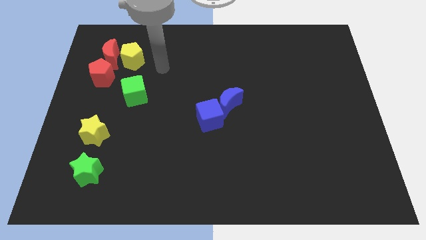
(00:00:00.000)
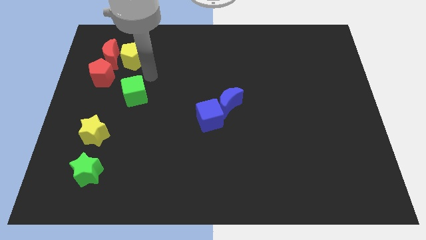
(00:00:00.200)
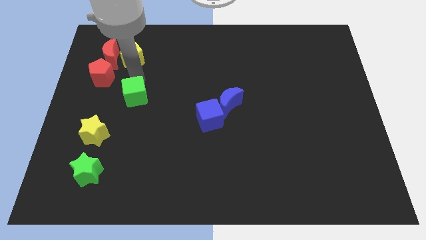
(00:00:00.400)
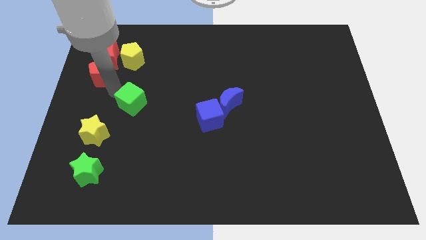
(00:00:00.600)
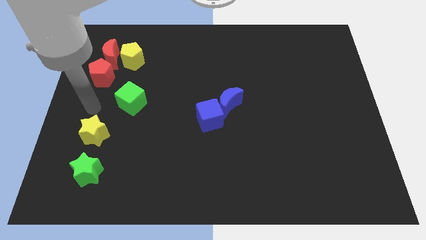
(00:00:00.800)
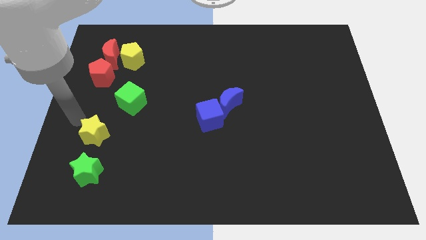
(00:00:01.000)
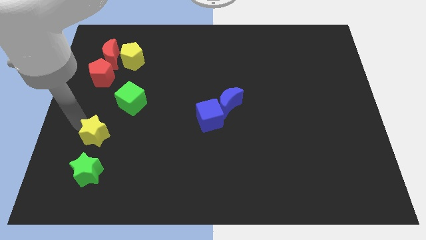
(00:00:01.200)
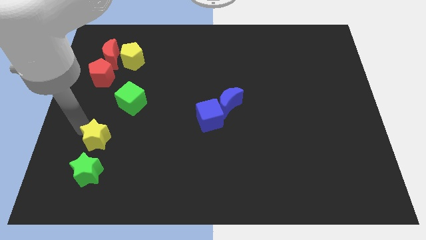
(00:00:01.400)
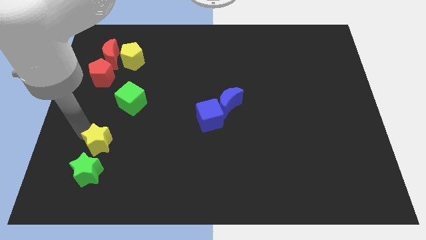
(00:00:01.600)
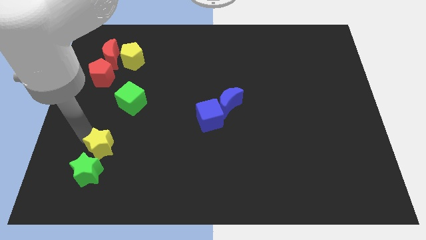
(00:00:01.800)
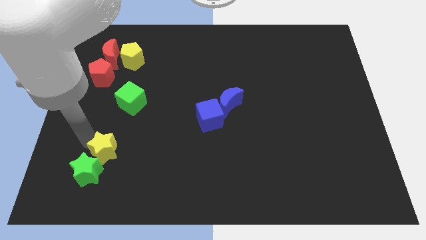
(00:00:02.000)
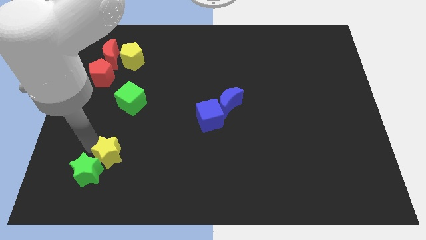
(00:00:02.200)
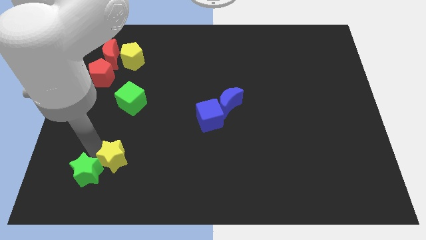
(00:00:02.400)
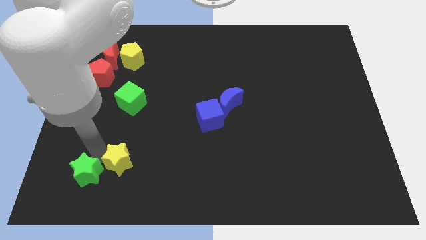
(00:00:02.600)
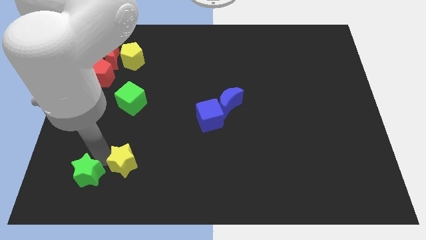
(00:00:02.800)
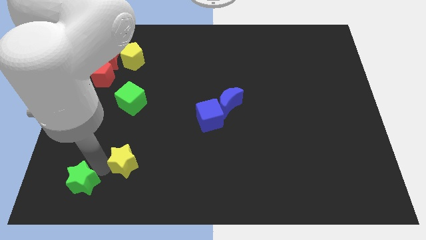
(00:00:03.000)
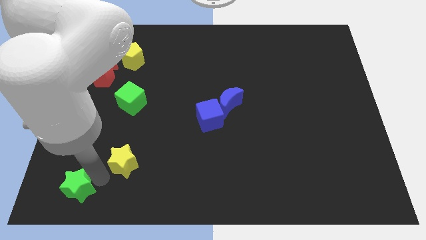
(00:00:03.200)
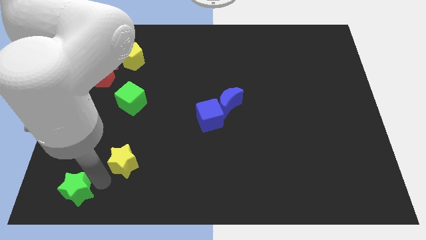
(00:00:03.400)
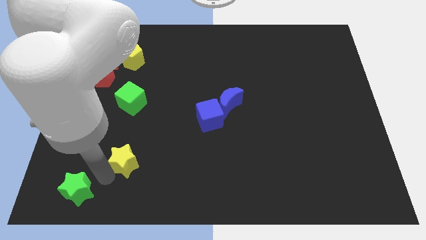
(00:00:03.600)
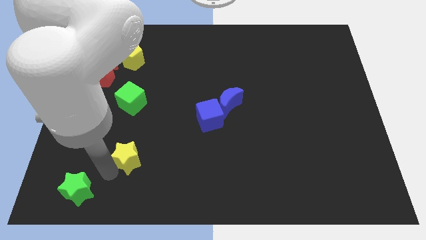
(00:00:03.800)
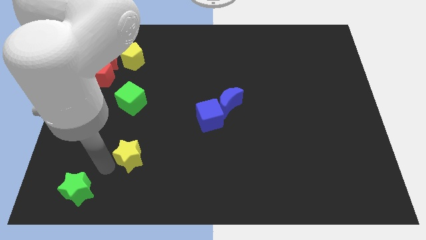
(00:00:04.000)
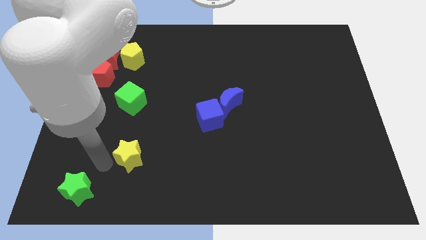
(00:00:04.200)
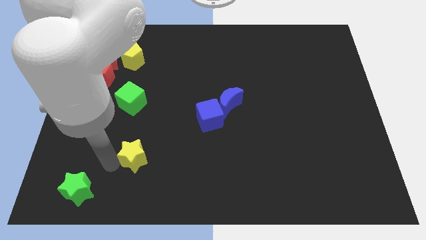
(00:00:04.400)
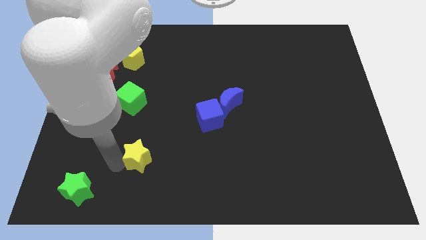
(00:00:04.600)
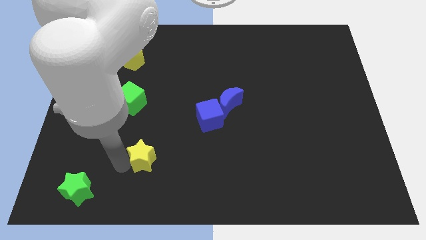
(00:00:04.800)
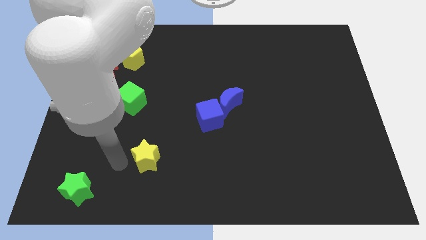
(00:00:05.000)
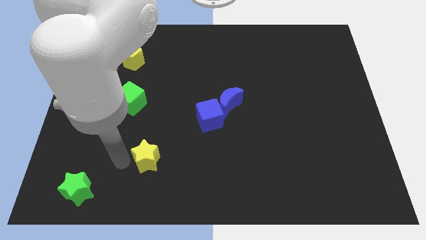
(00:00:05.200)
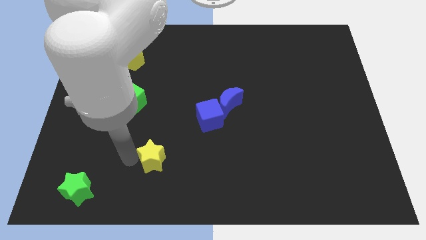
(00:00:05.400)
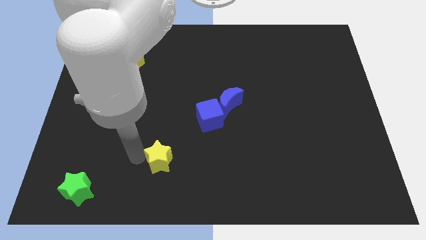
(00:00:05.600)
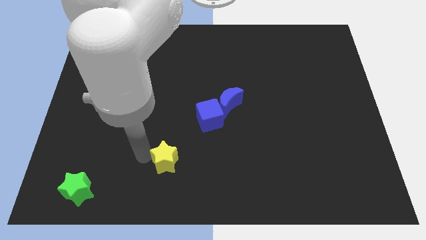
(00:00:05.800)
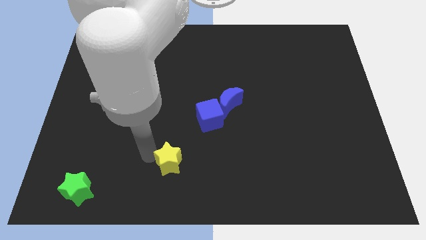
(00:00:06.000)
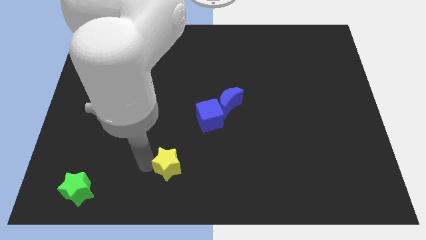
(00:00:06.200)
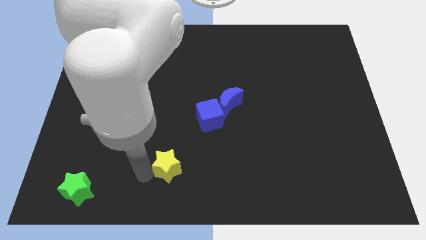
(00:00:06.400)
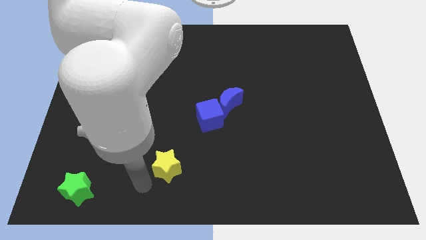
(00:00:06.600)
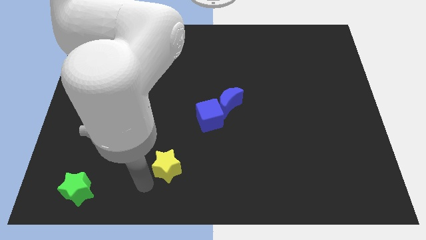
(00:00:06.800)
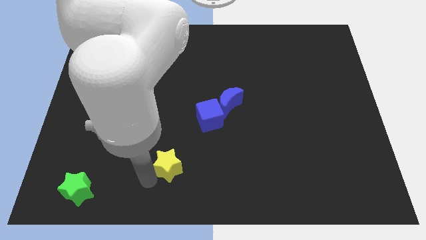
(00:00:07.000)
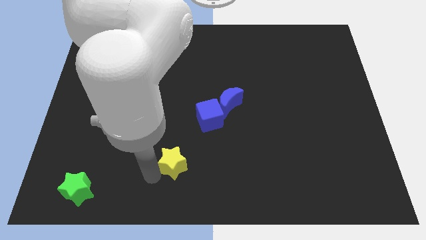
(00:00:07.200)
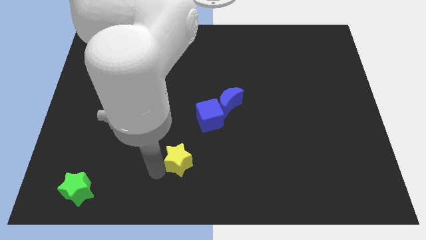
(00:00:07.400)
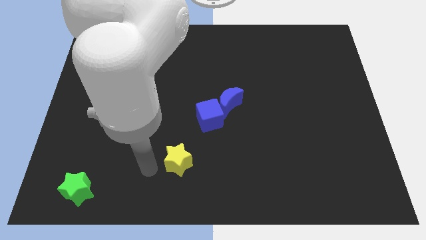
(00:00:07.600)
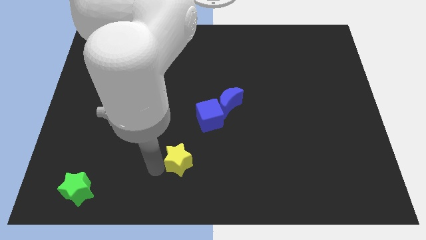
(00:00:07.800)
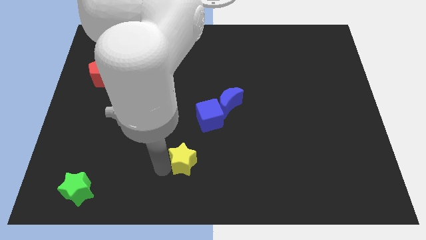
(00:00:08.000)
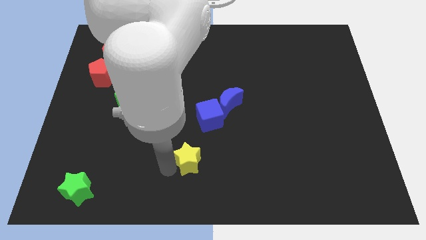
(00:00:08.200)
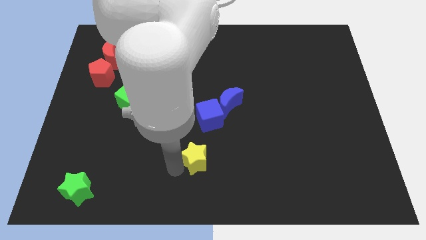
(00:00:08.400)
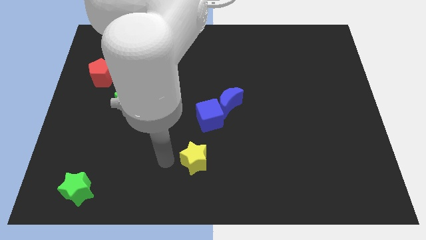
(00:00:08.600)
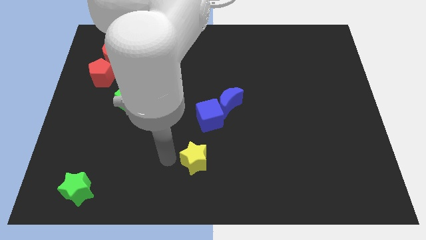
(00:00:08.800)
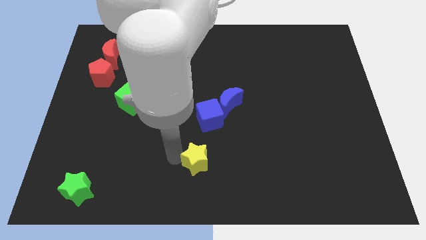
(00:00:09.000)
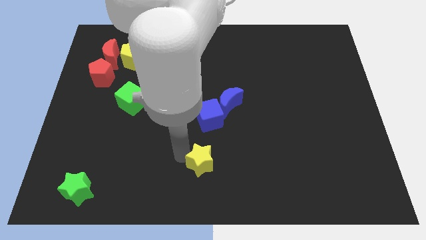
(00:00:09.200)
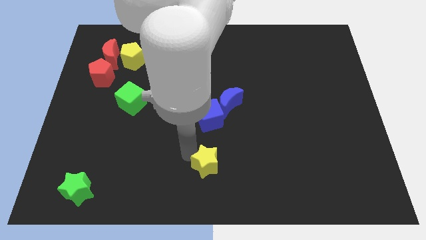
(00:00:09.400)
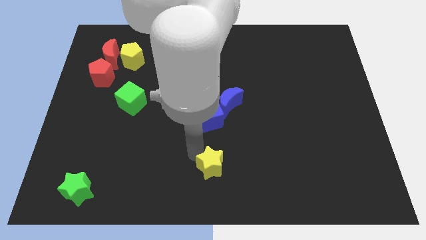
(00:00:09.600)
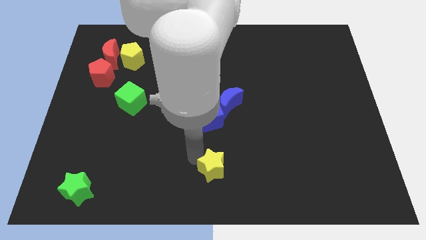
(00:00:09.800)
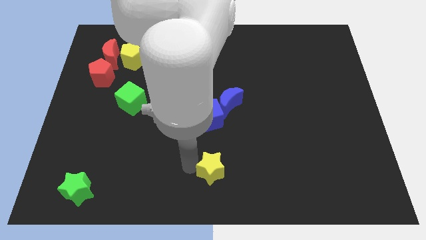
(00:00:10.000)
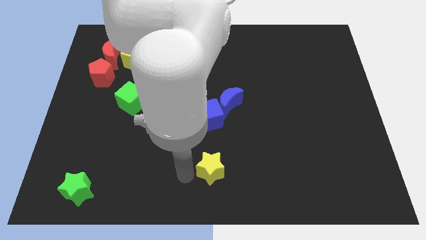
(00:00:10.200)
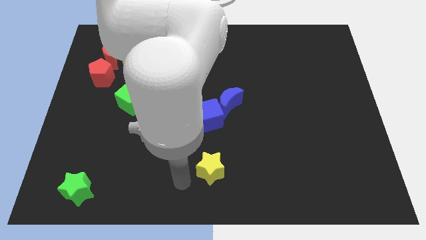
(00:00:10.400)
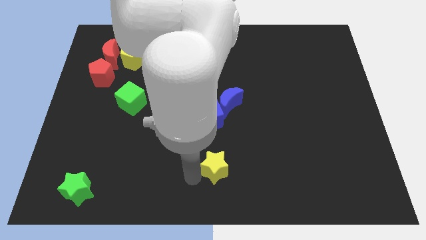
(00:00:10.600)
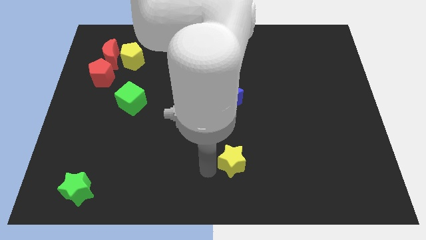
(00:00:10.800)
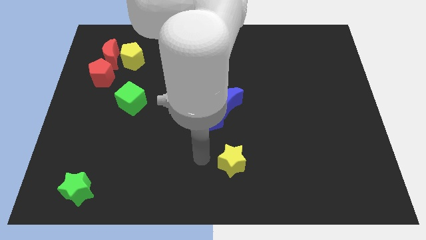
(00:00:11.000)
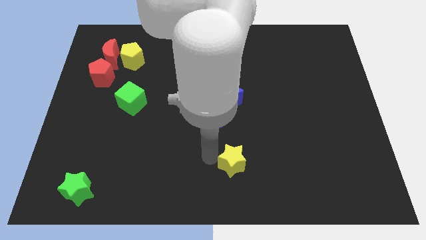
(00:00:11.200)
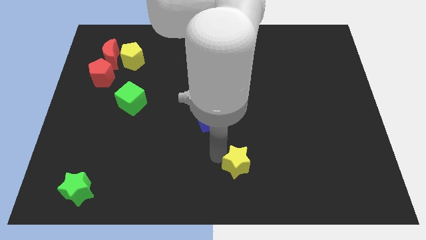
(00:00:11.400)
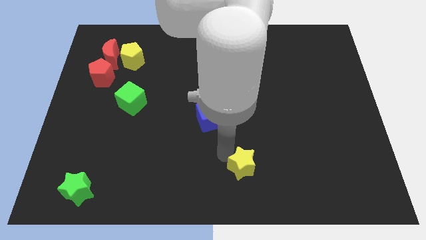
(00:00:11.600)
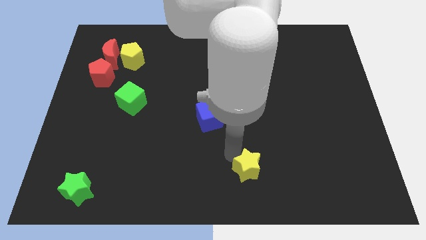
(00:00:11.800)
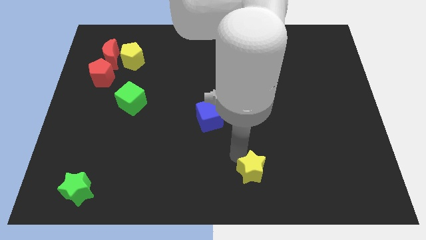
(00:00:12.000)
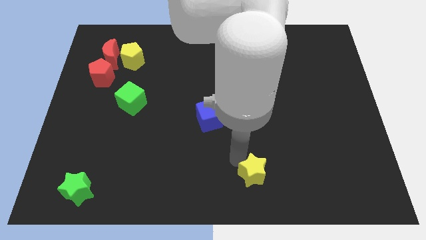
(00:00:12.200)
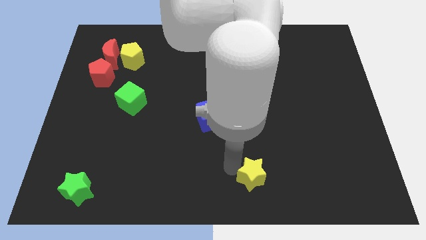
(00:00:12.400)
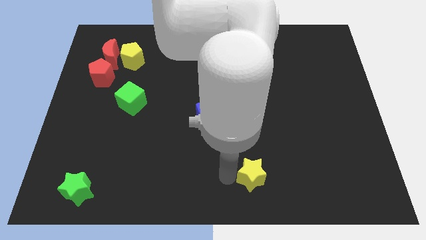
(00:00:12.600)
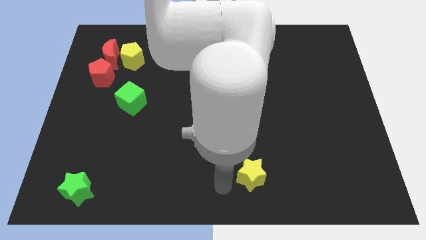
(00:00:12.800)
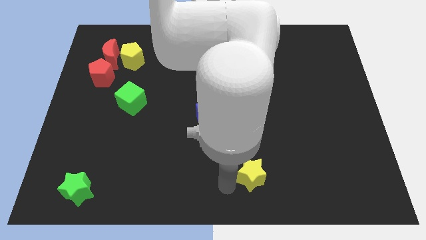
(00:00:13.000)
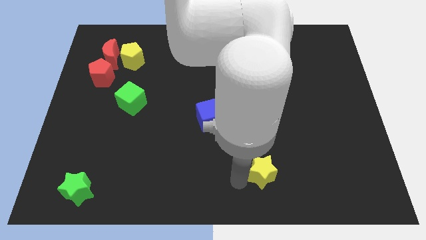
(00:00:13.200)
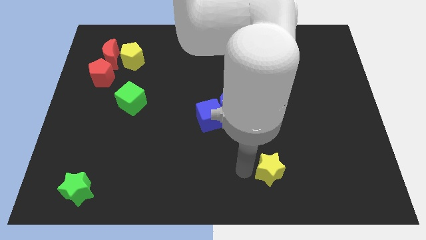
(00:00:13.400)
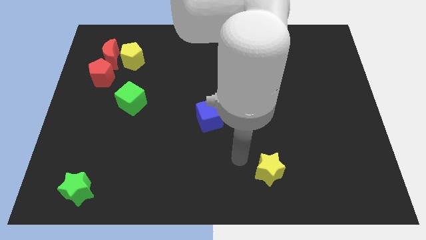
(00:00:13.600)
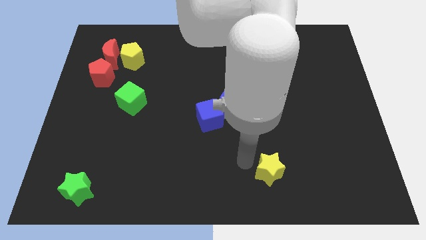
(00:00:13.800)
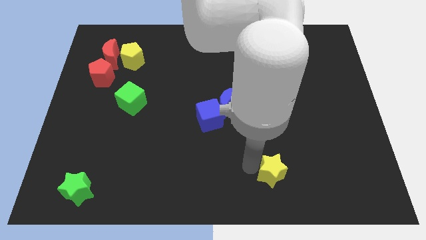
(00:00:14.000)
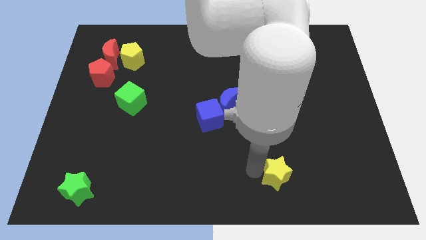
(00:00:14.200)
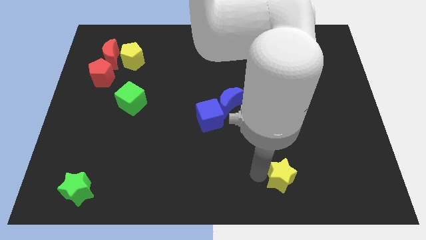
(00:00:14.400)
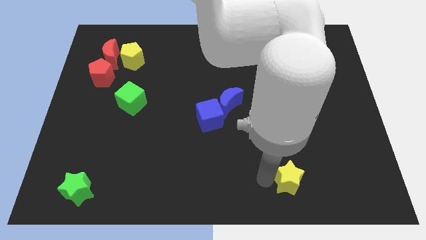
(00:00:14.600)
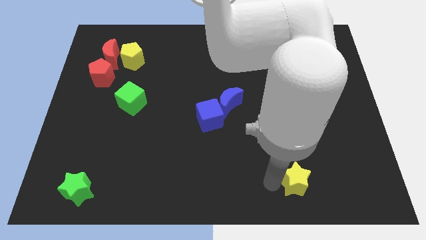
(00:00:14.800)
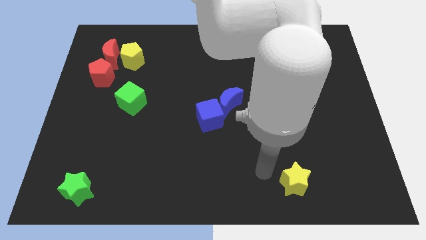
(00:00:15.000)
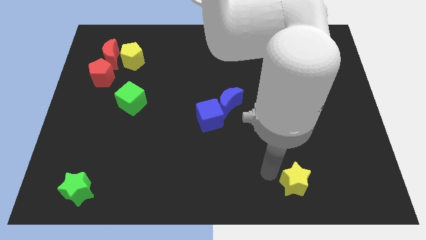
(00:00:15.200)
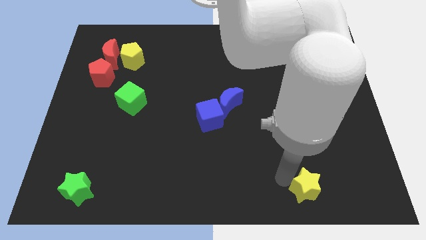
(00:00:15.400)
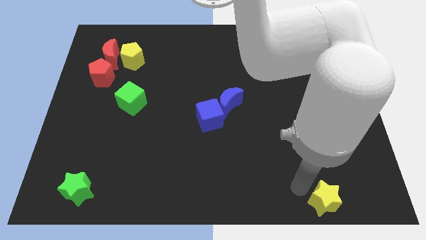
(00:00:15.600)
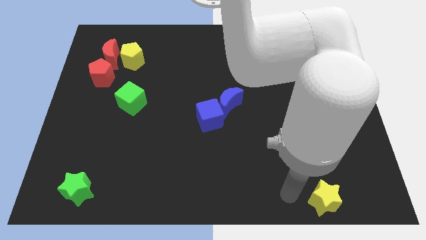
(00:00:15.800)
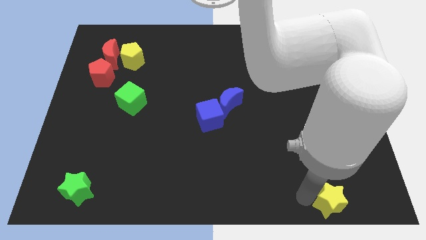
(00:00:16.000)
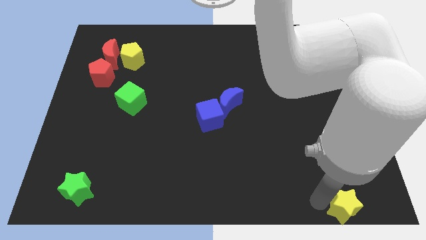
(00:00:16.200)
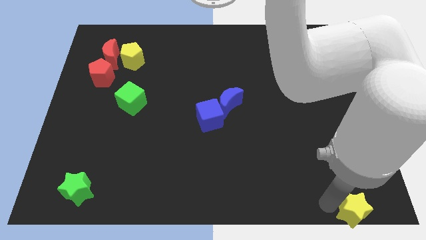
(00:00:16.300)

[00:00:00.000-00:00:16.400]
move the yellow star to the bottom right corner
